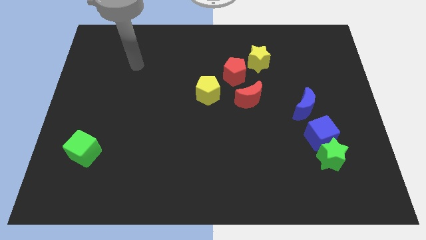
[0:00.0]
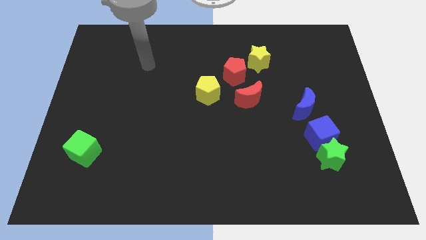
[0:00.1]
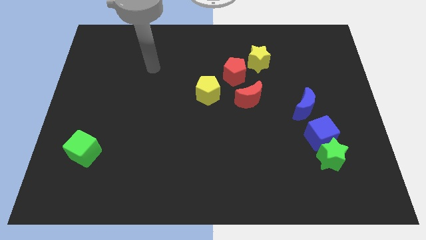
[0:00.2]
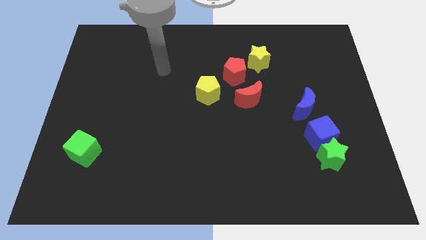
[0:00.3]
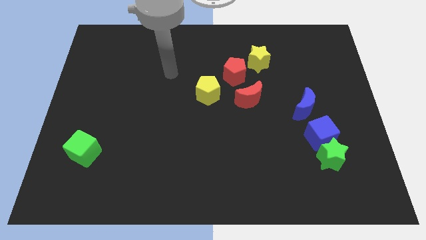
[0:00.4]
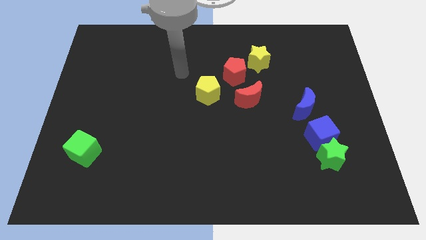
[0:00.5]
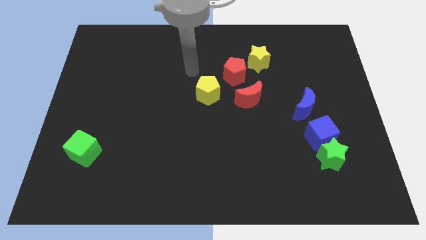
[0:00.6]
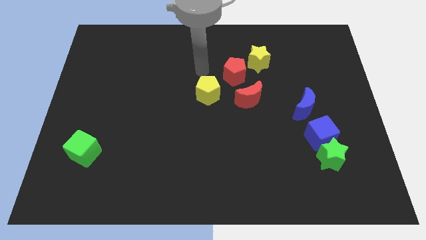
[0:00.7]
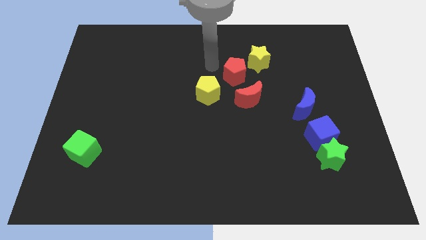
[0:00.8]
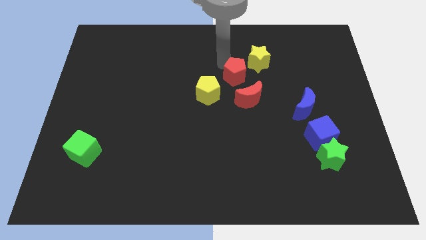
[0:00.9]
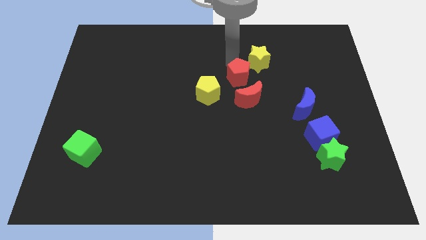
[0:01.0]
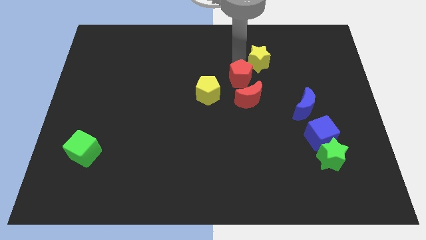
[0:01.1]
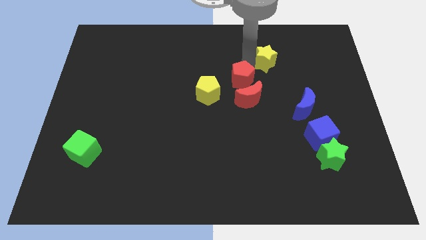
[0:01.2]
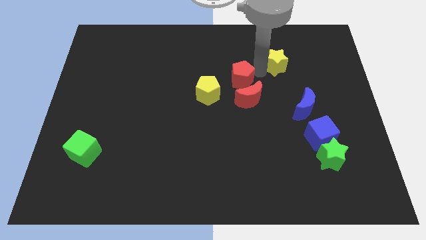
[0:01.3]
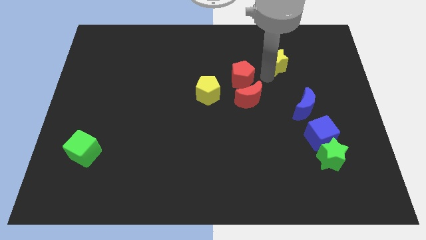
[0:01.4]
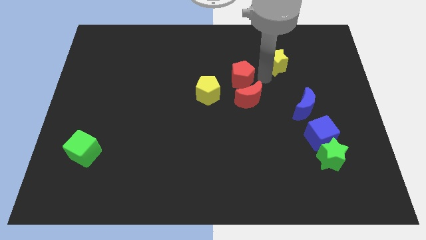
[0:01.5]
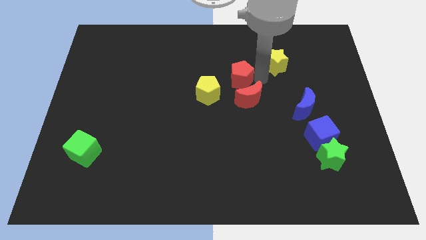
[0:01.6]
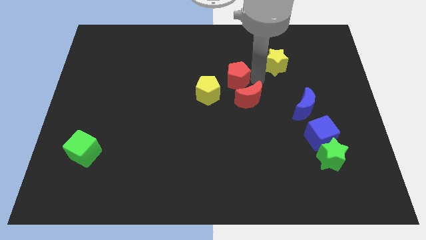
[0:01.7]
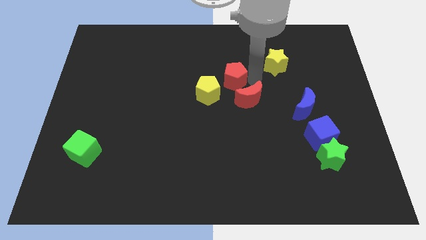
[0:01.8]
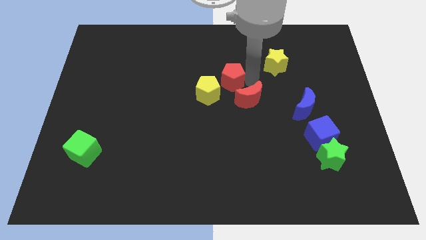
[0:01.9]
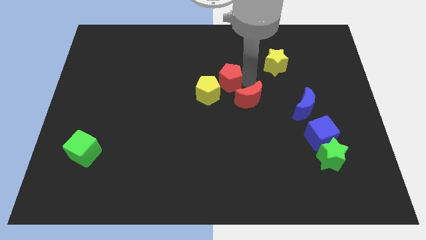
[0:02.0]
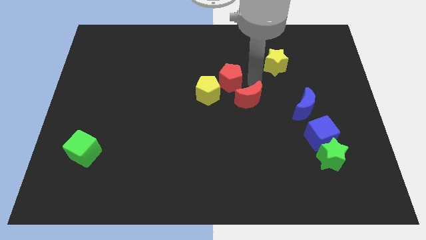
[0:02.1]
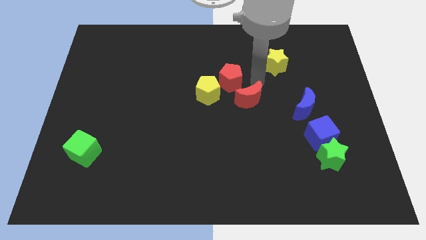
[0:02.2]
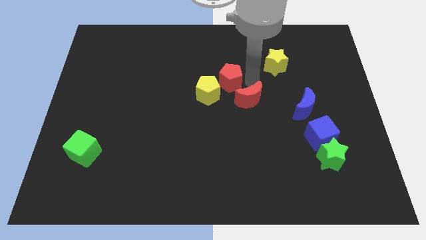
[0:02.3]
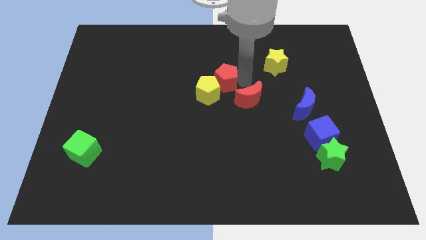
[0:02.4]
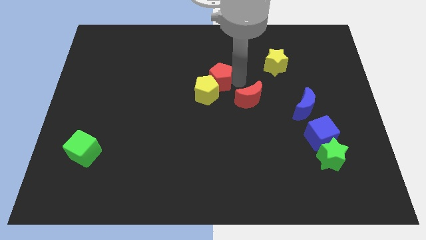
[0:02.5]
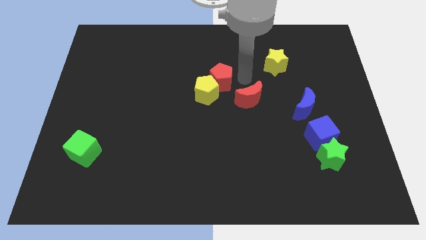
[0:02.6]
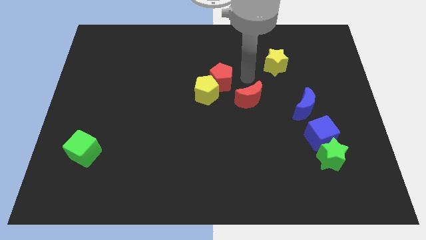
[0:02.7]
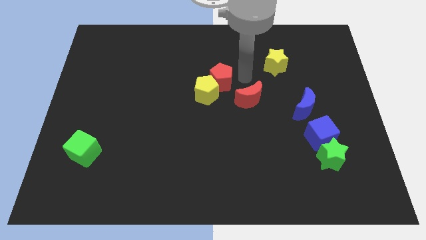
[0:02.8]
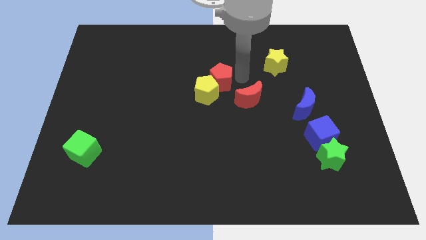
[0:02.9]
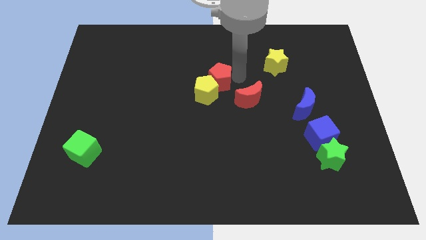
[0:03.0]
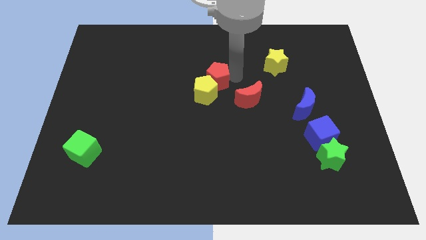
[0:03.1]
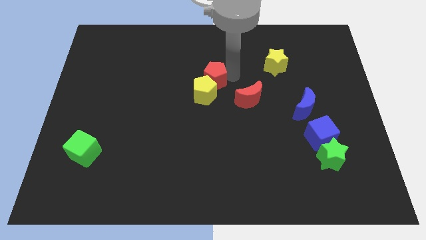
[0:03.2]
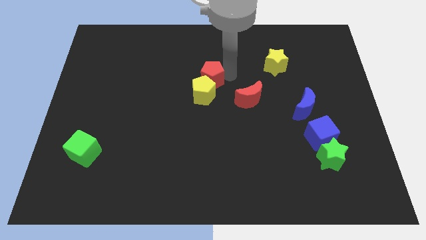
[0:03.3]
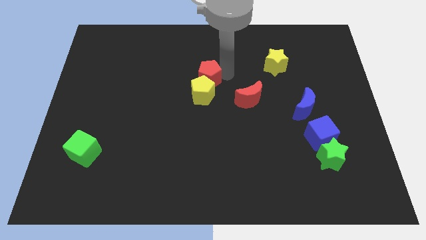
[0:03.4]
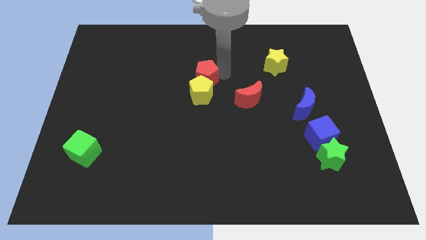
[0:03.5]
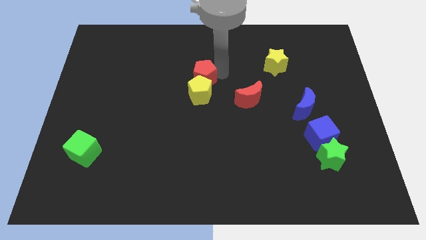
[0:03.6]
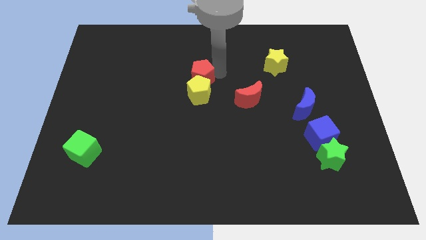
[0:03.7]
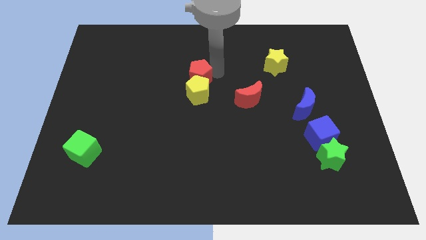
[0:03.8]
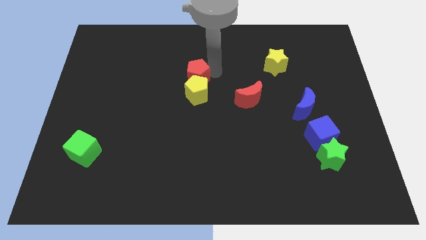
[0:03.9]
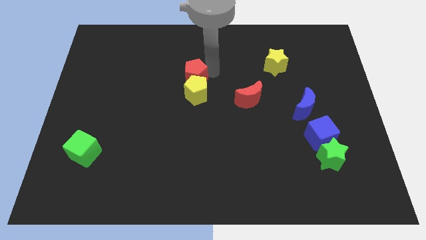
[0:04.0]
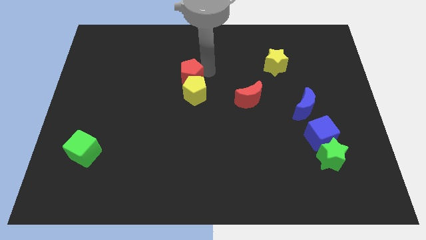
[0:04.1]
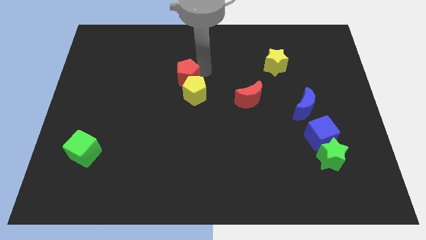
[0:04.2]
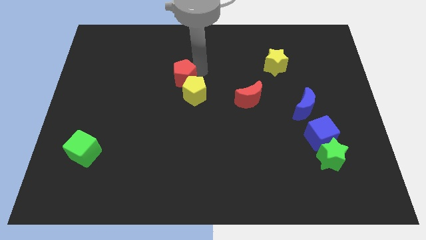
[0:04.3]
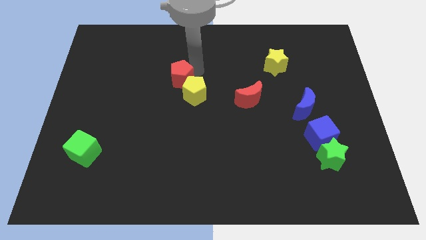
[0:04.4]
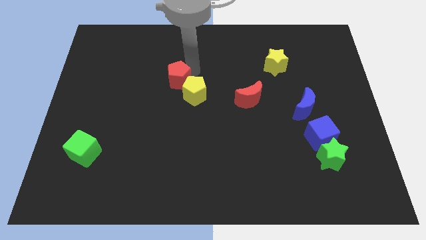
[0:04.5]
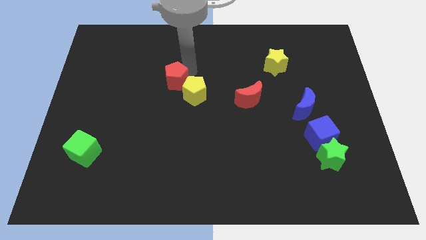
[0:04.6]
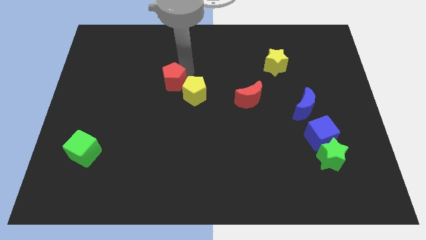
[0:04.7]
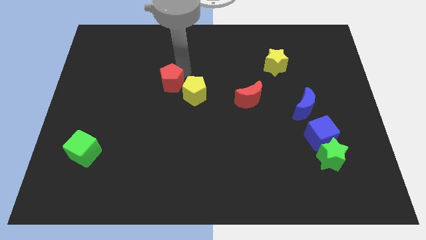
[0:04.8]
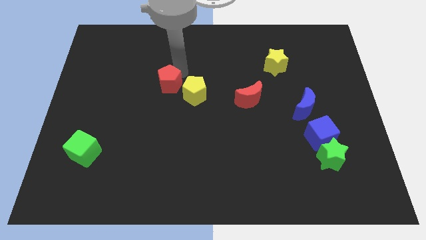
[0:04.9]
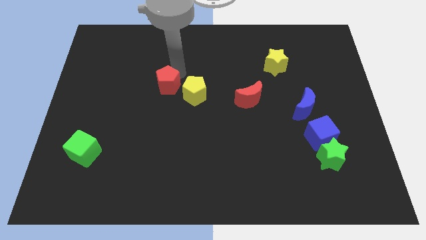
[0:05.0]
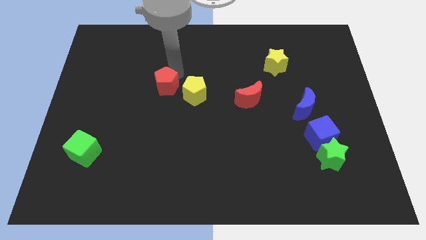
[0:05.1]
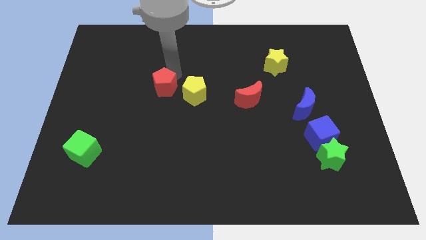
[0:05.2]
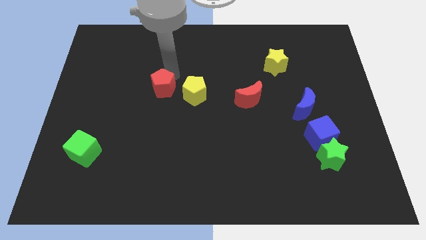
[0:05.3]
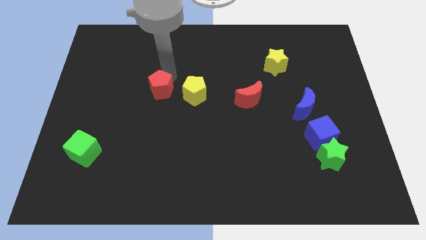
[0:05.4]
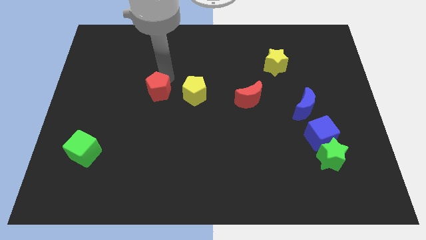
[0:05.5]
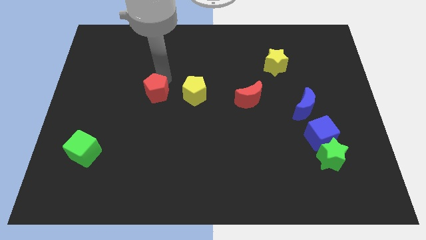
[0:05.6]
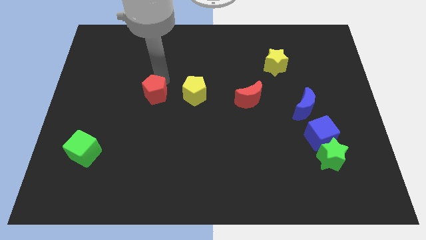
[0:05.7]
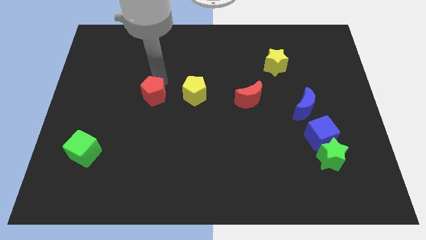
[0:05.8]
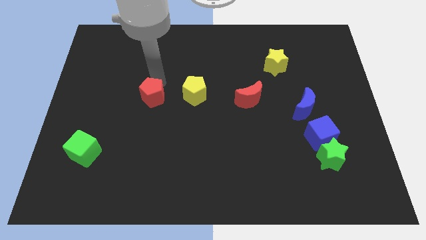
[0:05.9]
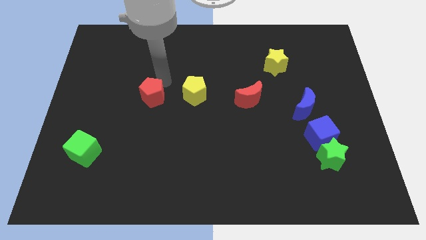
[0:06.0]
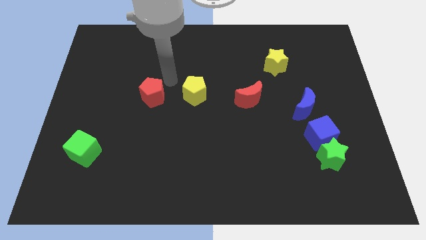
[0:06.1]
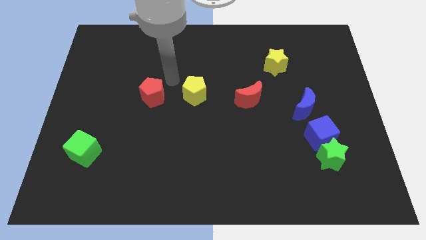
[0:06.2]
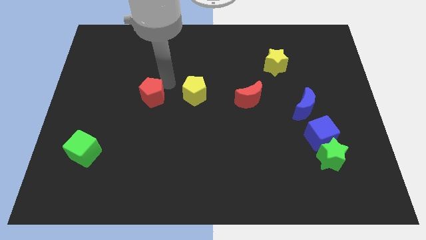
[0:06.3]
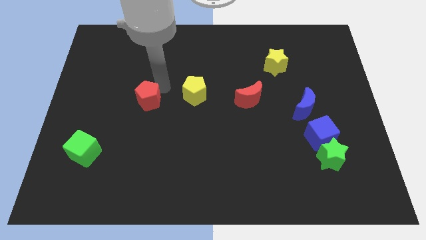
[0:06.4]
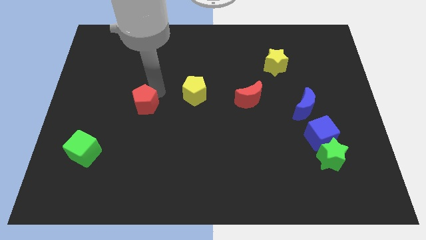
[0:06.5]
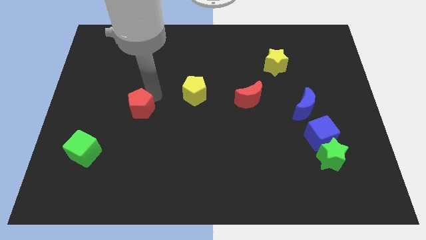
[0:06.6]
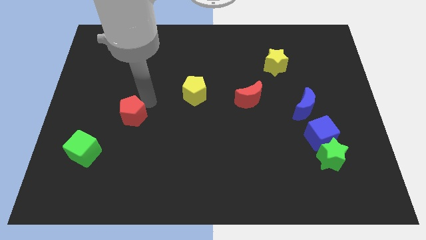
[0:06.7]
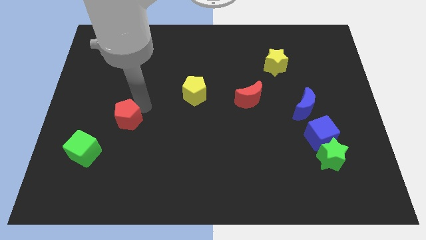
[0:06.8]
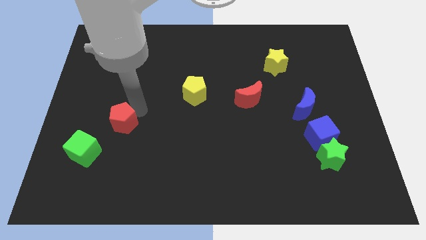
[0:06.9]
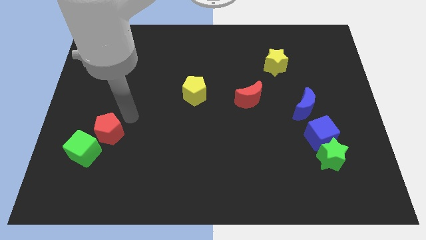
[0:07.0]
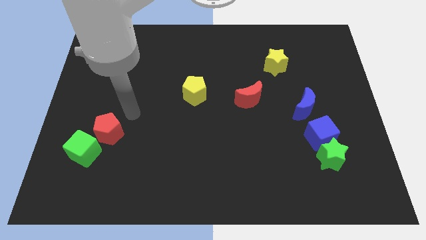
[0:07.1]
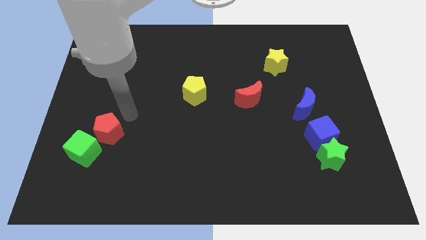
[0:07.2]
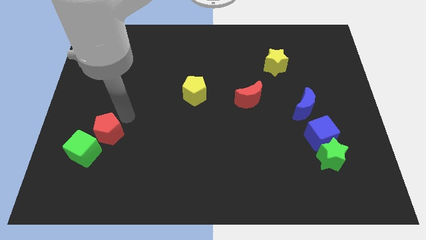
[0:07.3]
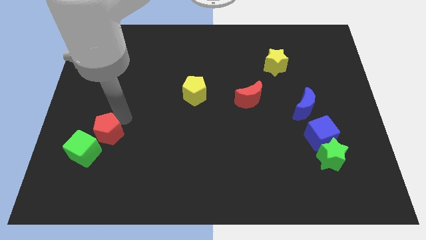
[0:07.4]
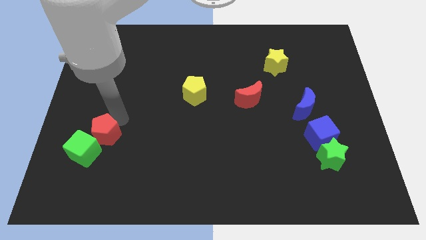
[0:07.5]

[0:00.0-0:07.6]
move the red pentagon towards the green cube
